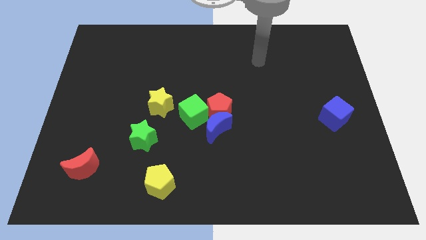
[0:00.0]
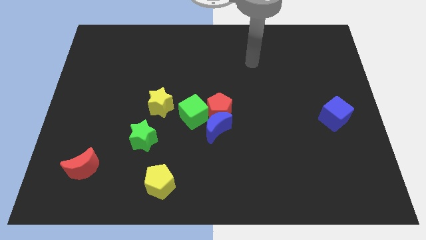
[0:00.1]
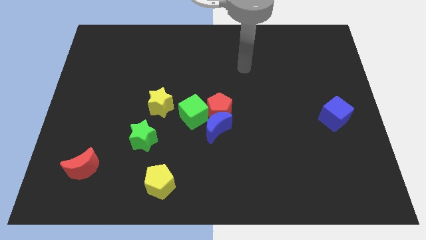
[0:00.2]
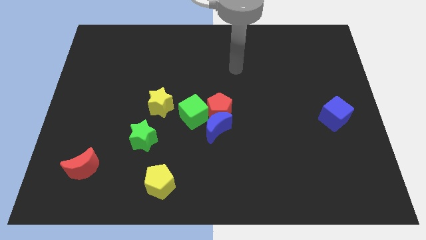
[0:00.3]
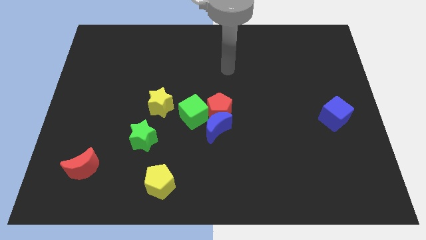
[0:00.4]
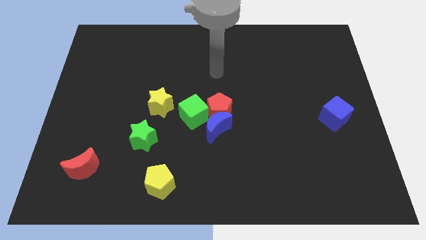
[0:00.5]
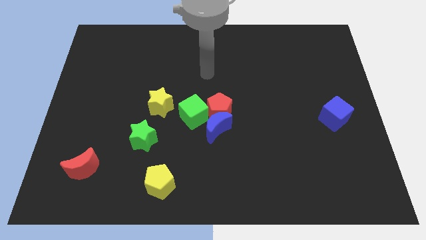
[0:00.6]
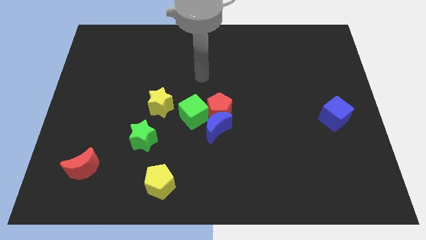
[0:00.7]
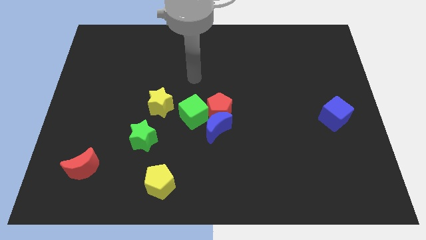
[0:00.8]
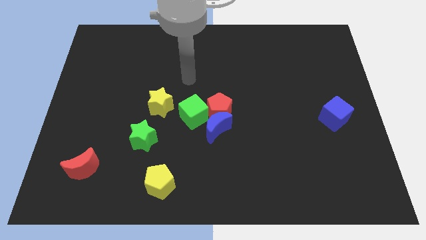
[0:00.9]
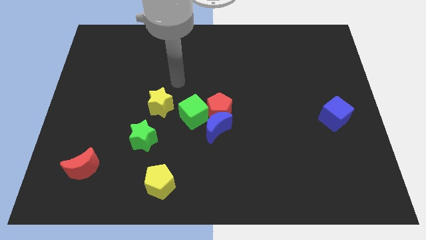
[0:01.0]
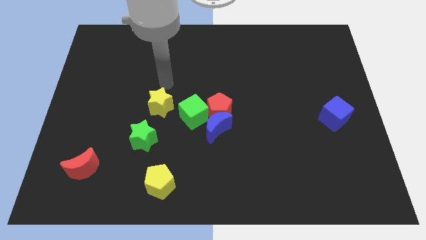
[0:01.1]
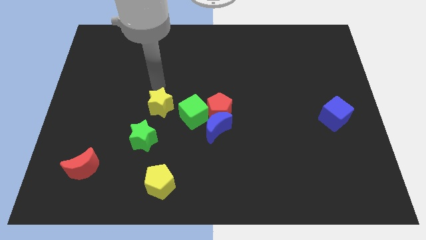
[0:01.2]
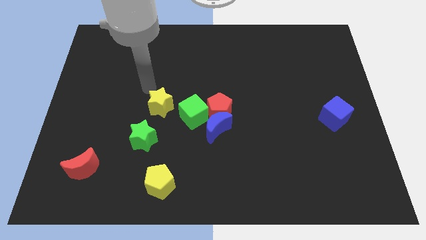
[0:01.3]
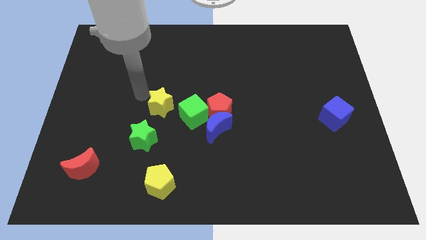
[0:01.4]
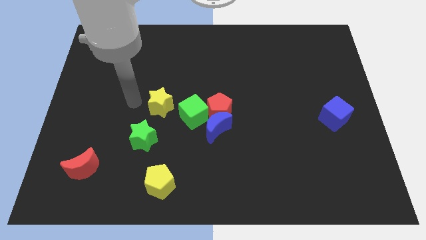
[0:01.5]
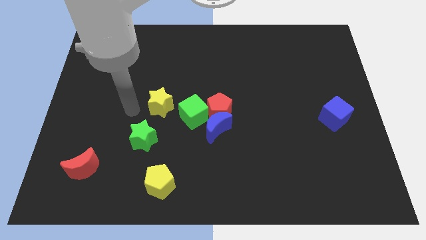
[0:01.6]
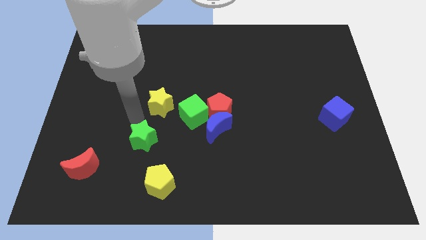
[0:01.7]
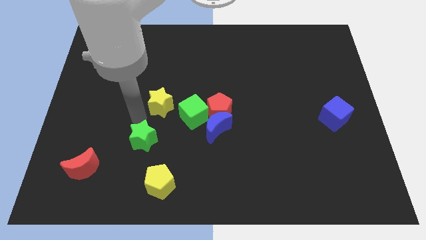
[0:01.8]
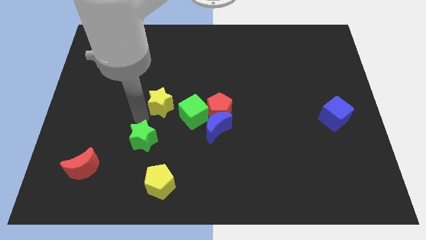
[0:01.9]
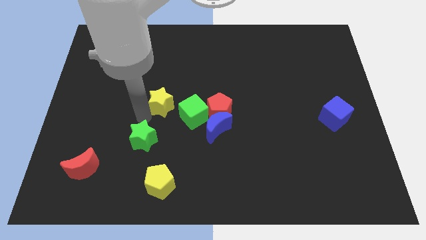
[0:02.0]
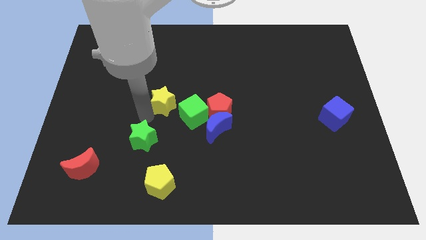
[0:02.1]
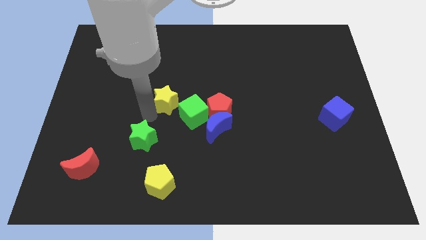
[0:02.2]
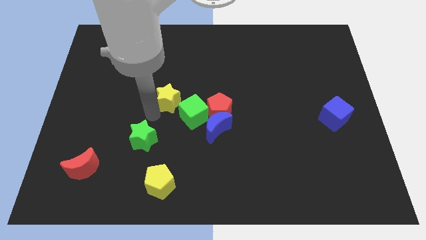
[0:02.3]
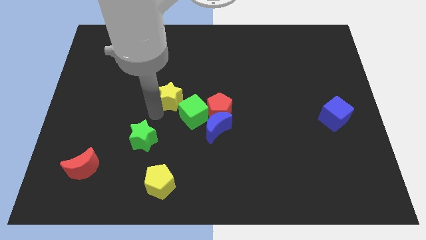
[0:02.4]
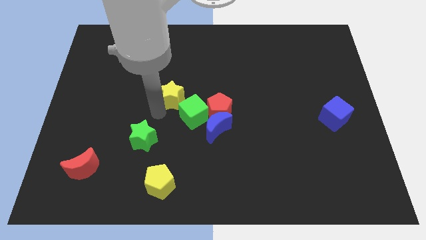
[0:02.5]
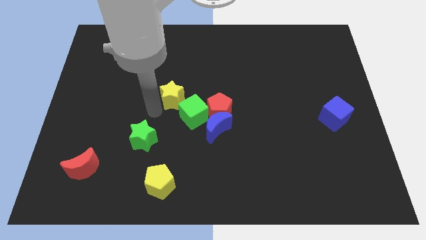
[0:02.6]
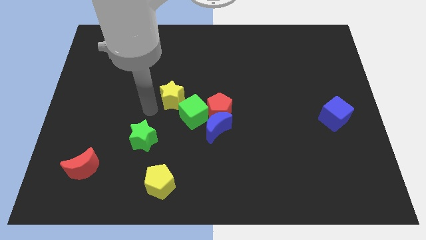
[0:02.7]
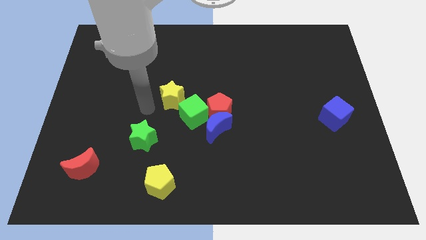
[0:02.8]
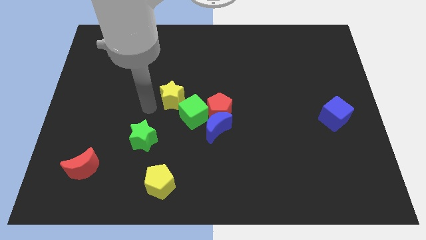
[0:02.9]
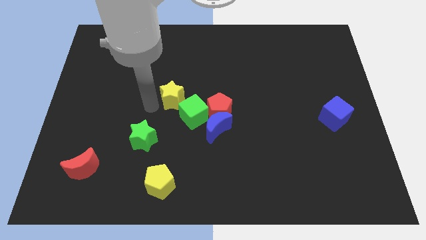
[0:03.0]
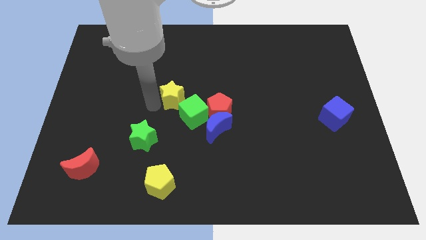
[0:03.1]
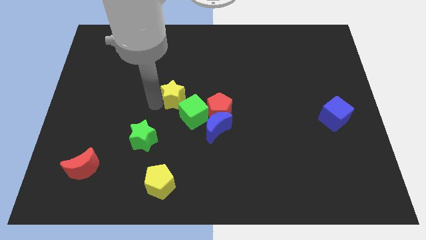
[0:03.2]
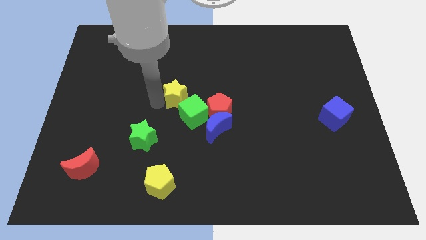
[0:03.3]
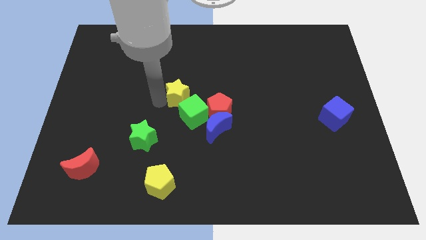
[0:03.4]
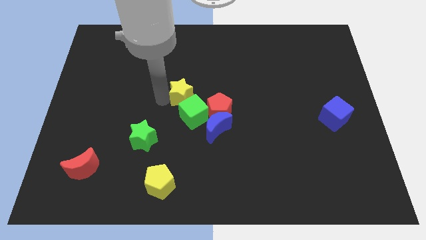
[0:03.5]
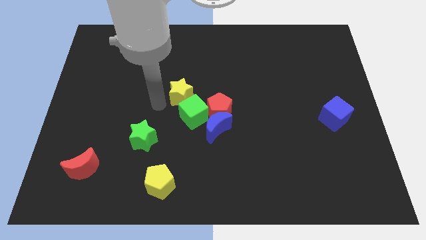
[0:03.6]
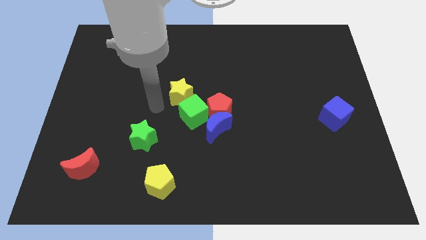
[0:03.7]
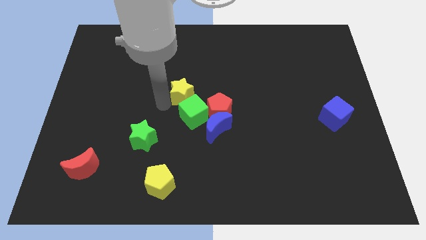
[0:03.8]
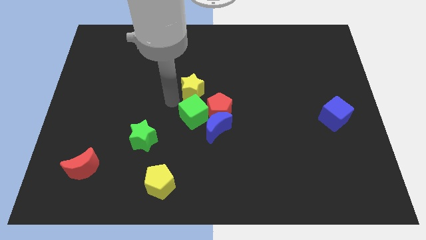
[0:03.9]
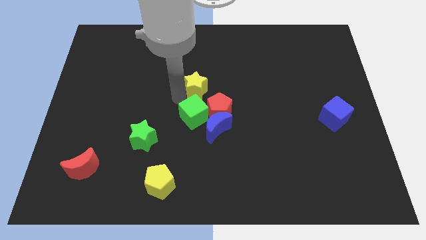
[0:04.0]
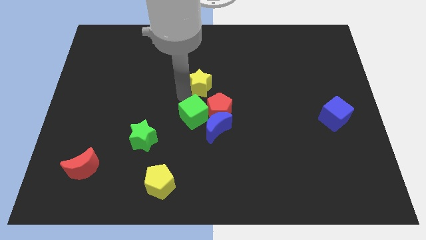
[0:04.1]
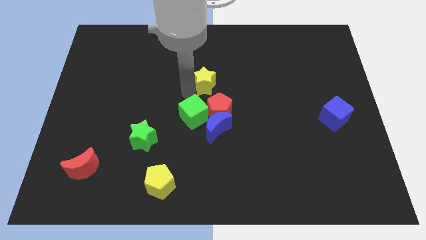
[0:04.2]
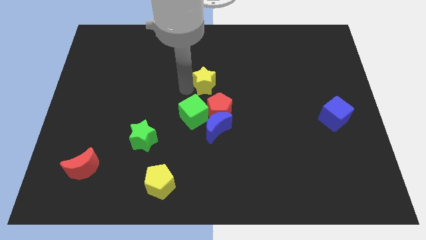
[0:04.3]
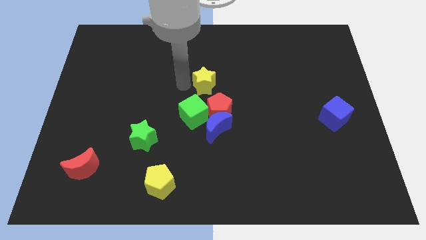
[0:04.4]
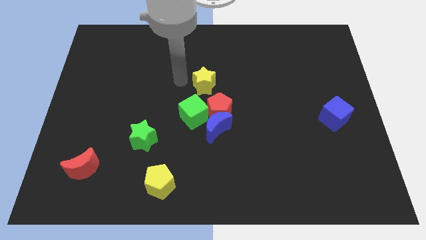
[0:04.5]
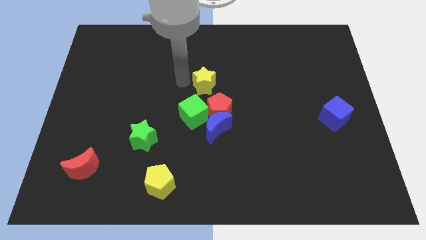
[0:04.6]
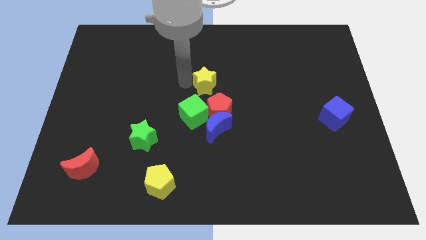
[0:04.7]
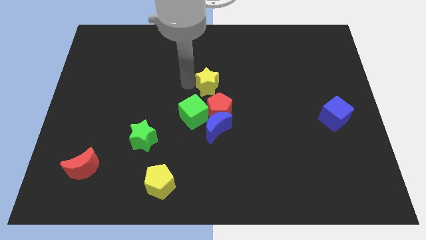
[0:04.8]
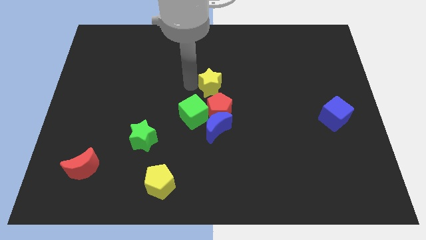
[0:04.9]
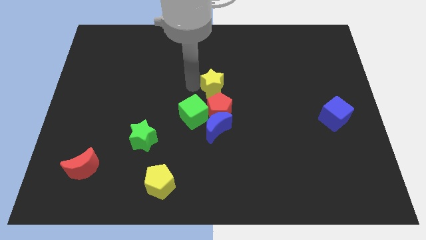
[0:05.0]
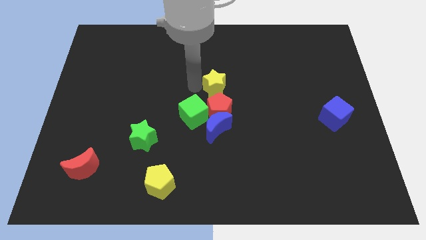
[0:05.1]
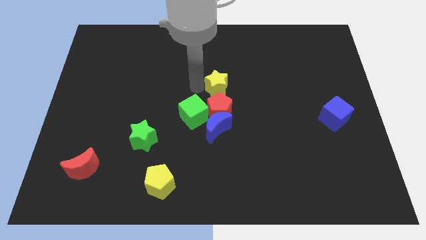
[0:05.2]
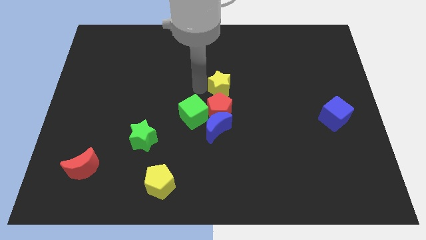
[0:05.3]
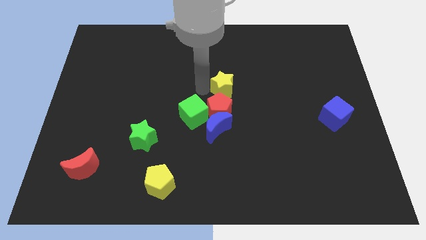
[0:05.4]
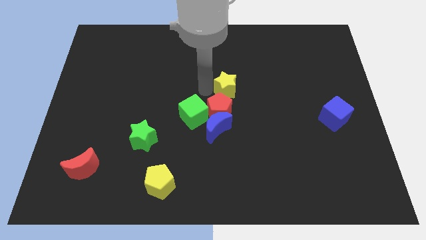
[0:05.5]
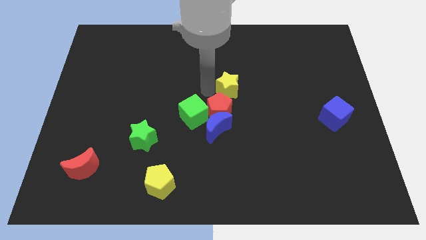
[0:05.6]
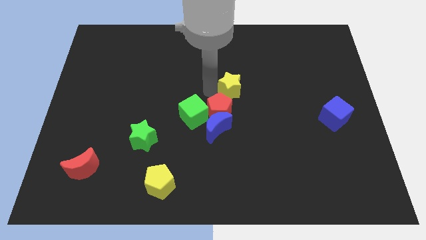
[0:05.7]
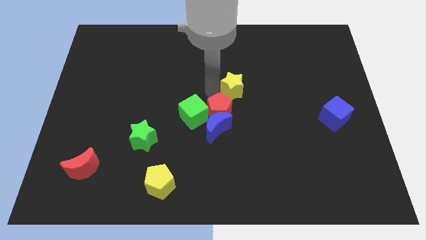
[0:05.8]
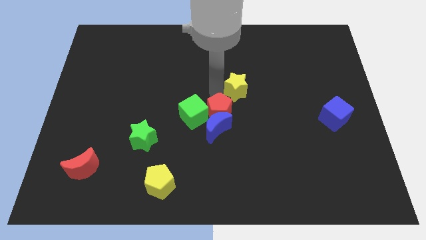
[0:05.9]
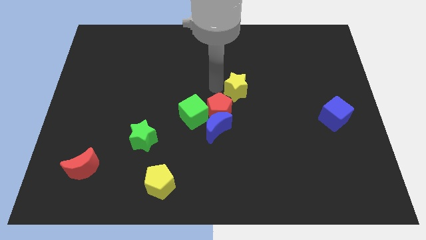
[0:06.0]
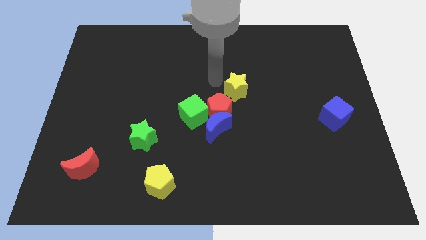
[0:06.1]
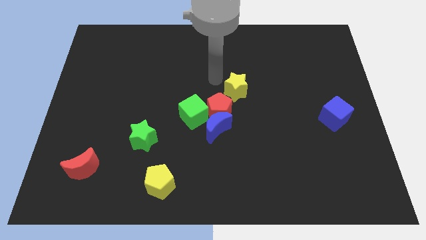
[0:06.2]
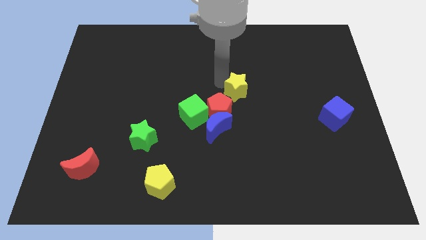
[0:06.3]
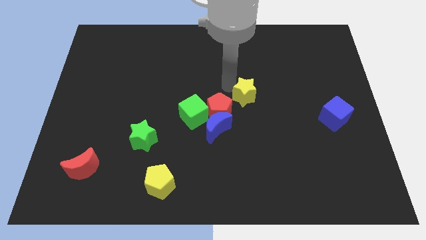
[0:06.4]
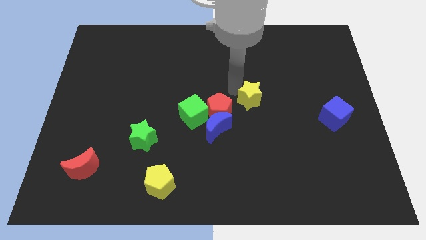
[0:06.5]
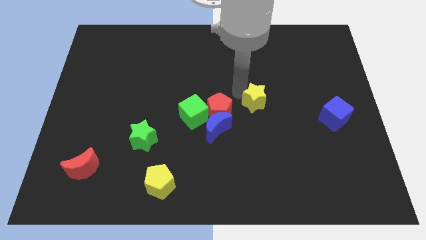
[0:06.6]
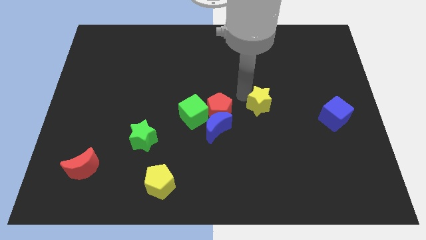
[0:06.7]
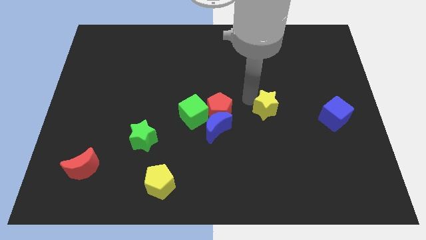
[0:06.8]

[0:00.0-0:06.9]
slide the yellow star left of the blue cube
